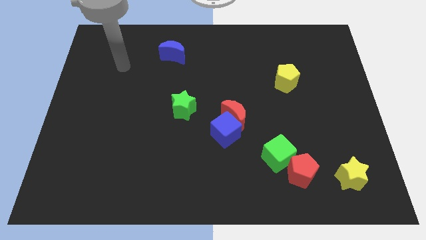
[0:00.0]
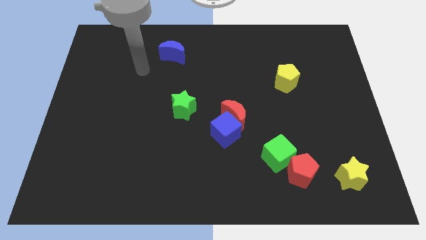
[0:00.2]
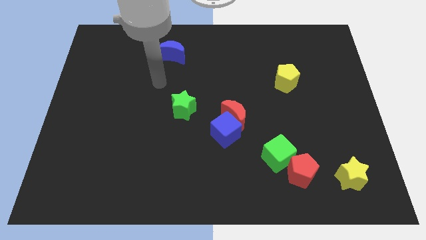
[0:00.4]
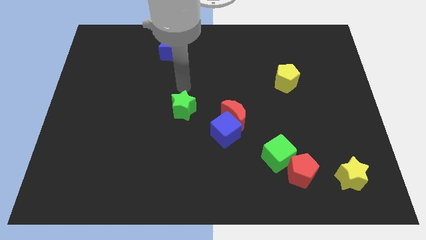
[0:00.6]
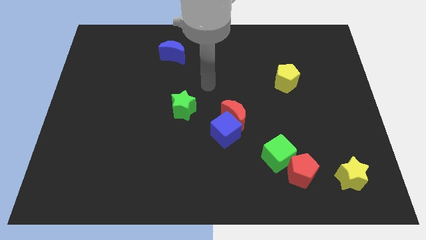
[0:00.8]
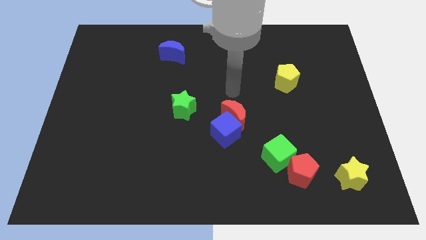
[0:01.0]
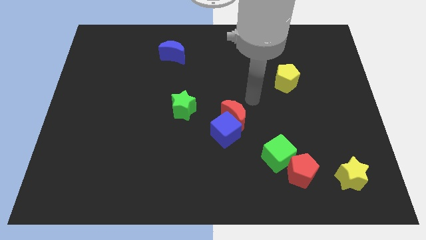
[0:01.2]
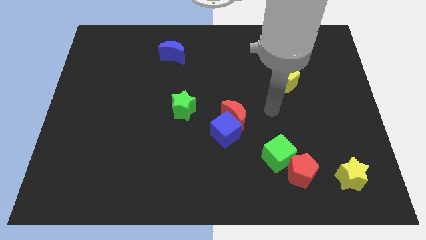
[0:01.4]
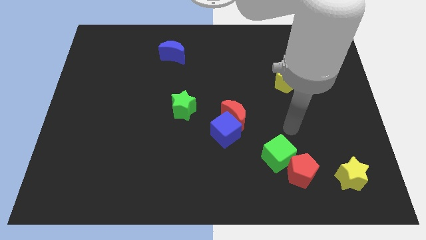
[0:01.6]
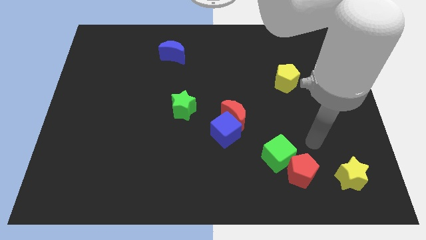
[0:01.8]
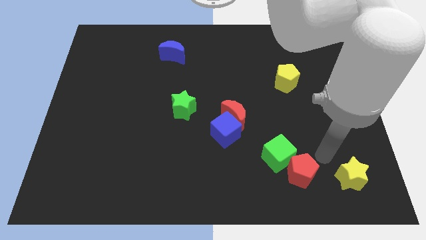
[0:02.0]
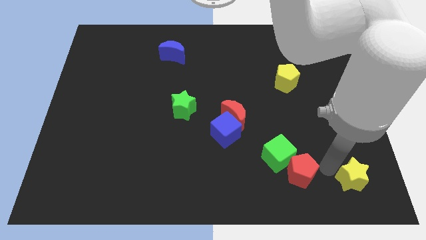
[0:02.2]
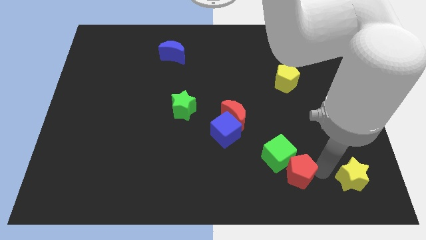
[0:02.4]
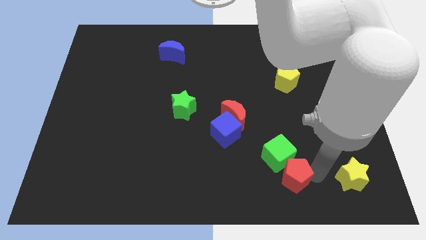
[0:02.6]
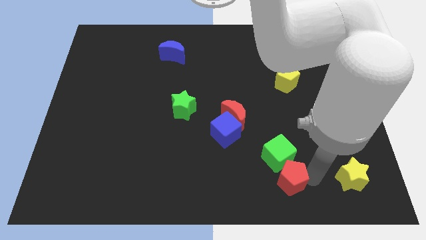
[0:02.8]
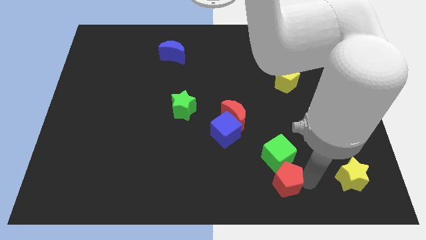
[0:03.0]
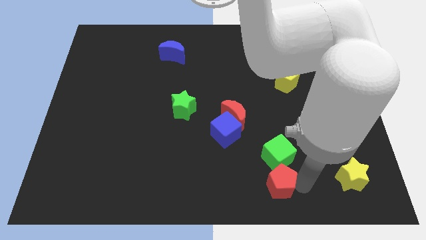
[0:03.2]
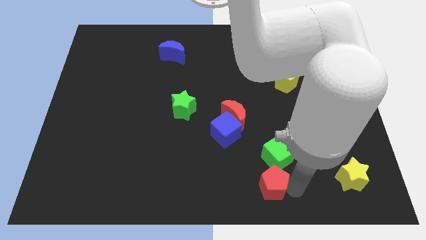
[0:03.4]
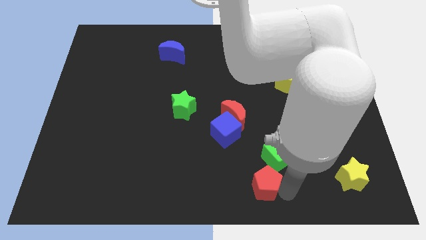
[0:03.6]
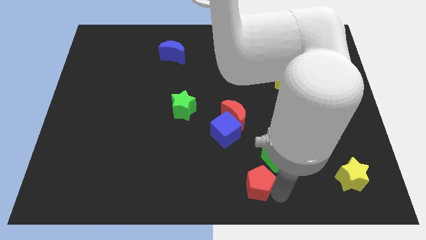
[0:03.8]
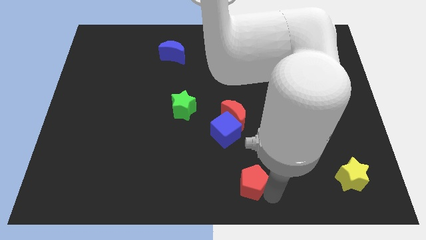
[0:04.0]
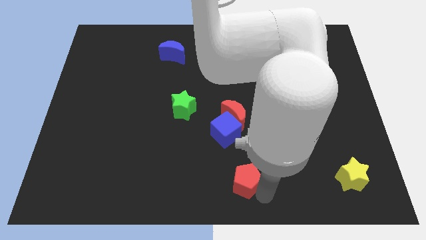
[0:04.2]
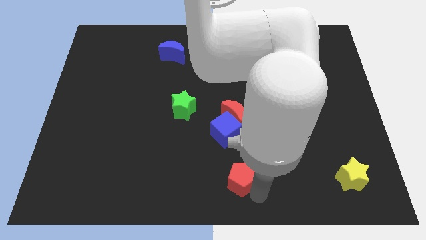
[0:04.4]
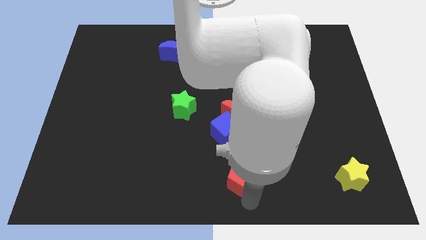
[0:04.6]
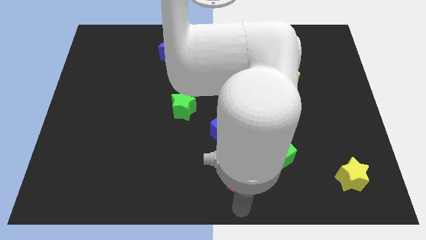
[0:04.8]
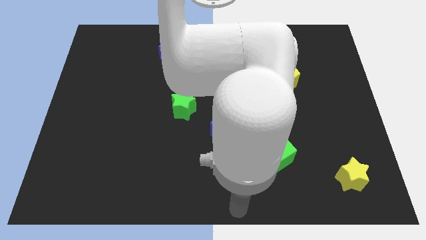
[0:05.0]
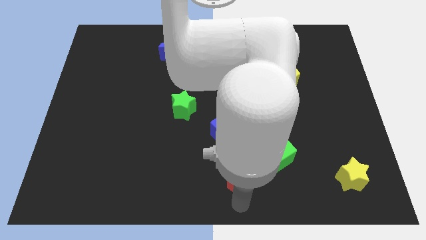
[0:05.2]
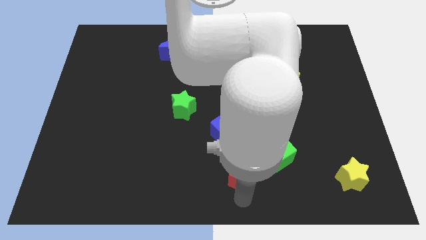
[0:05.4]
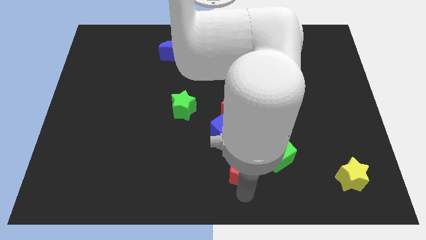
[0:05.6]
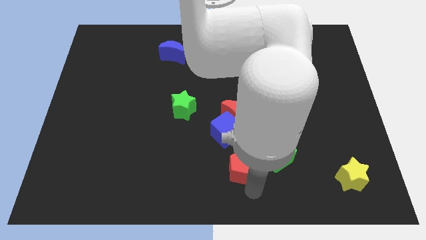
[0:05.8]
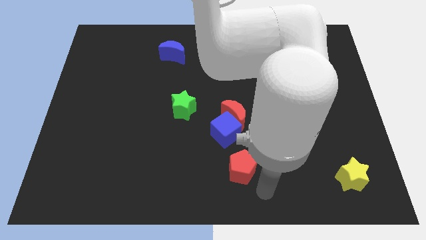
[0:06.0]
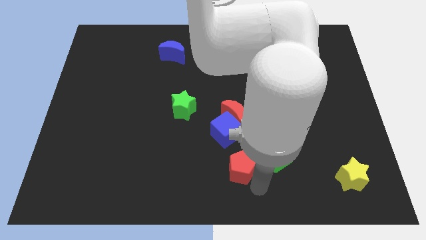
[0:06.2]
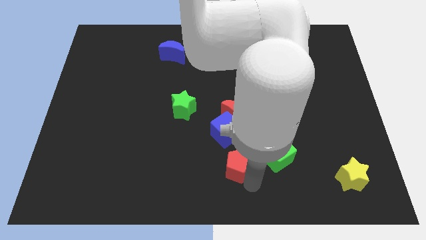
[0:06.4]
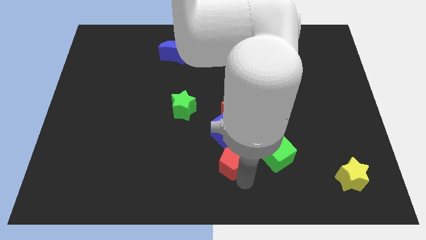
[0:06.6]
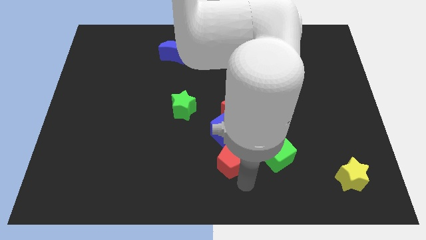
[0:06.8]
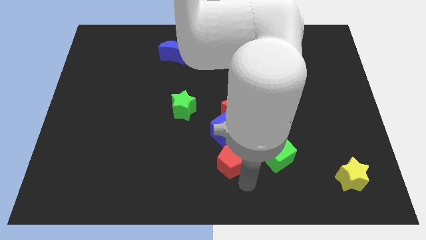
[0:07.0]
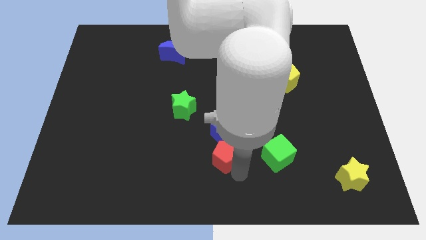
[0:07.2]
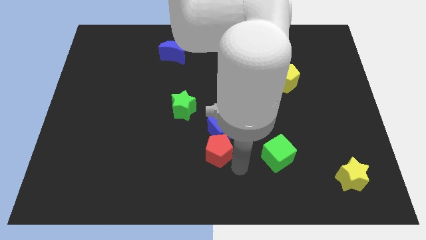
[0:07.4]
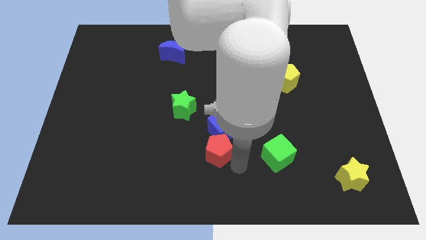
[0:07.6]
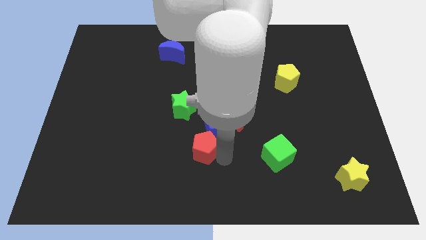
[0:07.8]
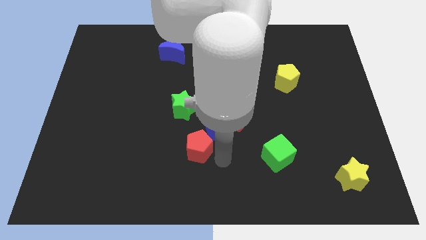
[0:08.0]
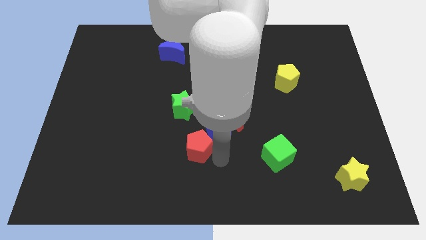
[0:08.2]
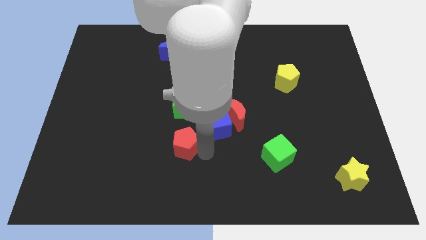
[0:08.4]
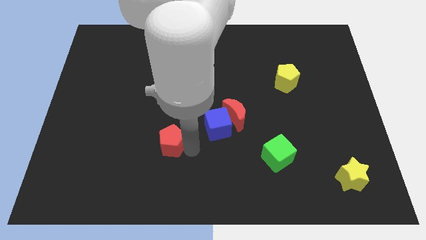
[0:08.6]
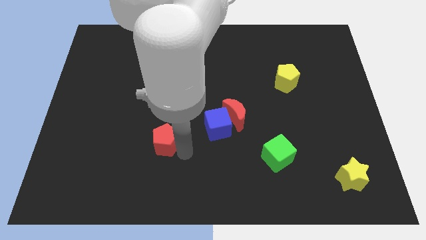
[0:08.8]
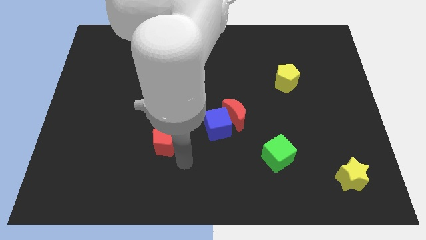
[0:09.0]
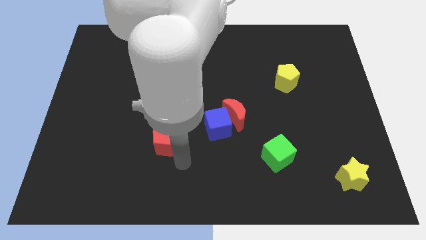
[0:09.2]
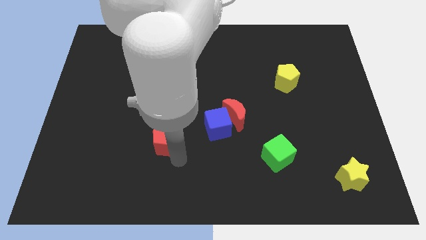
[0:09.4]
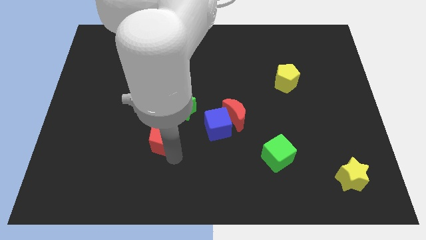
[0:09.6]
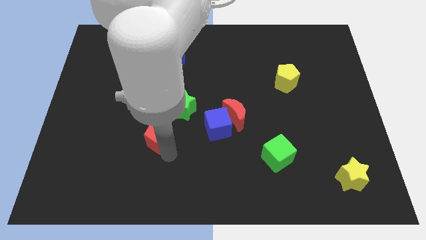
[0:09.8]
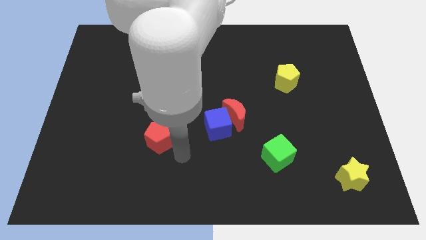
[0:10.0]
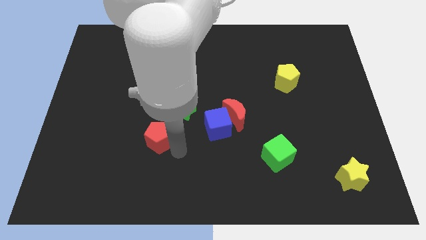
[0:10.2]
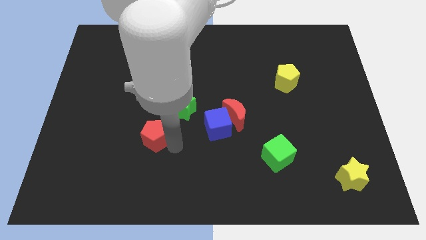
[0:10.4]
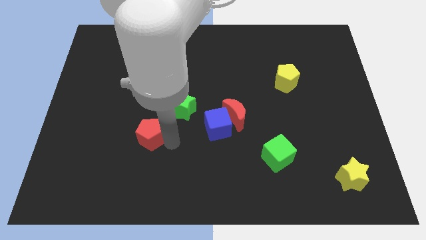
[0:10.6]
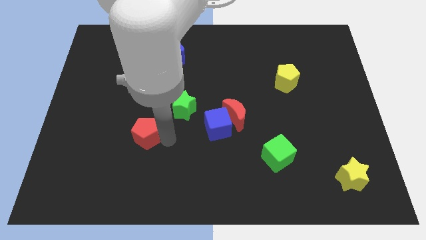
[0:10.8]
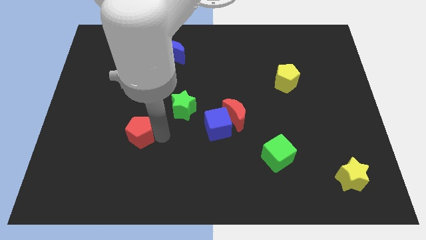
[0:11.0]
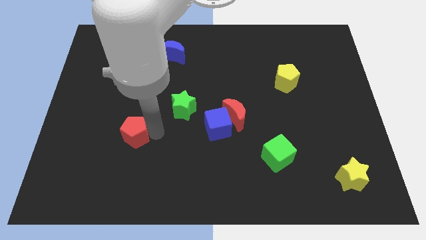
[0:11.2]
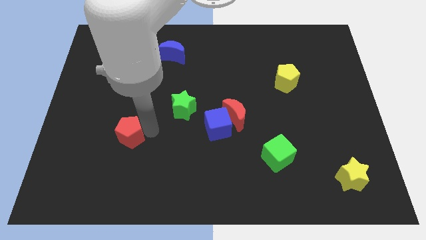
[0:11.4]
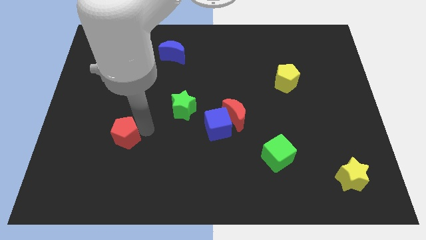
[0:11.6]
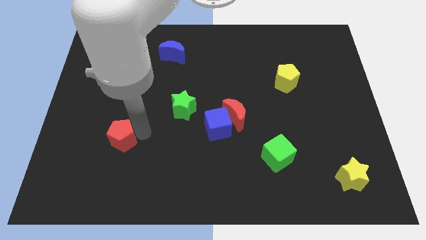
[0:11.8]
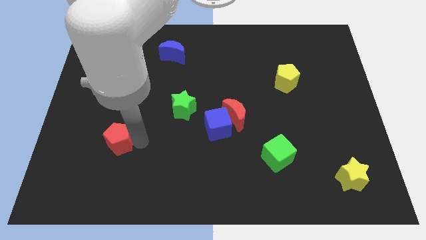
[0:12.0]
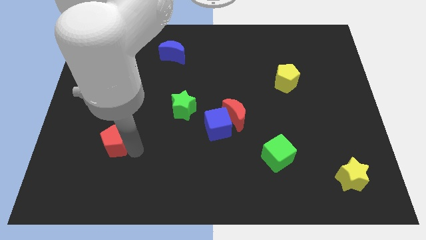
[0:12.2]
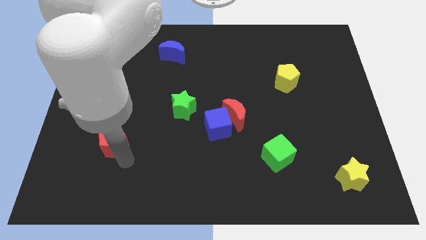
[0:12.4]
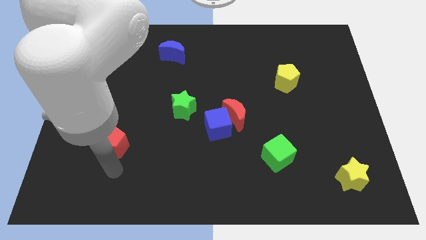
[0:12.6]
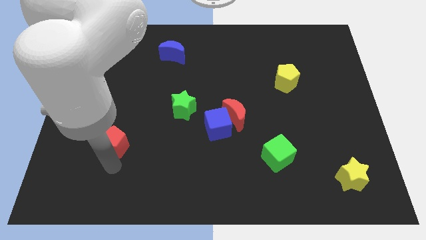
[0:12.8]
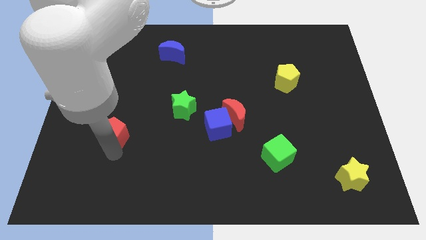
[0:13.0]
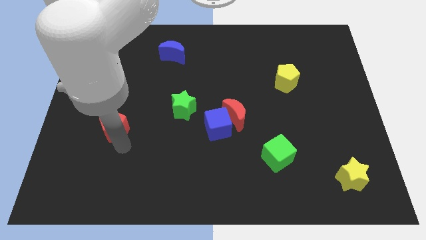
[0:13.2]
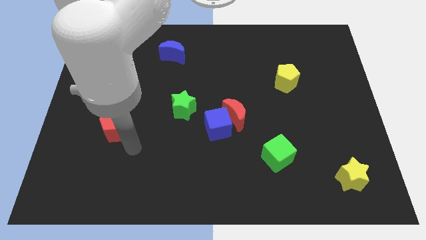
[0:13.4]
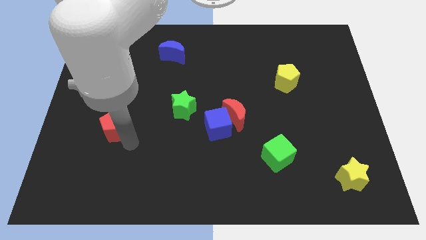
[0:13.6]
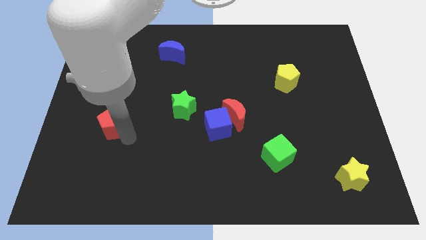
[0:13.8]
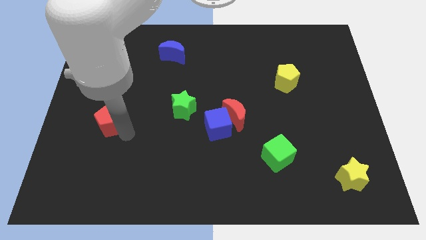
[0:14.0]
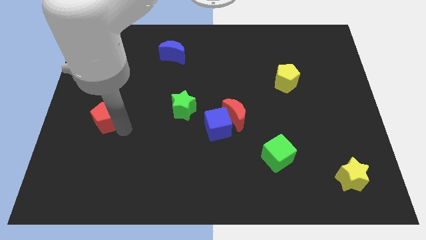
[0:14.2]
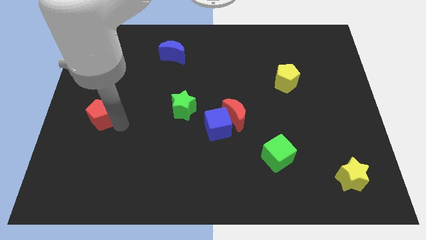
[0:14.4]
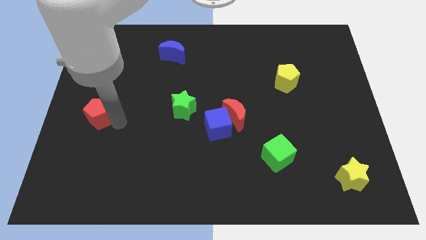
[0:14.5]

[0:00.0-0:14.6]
push the red pentagon to the left side of the board

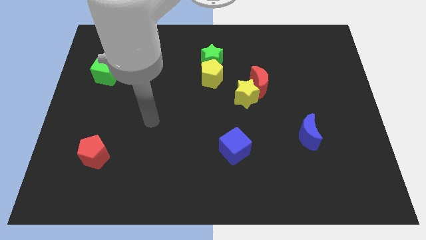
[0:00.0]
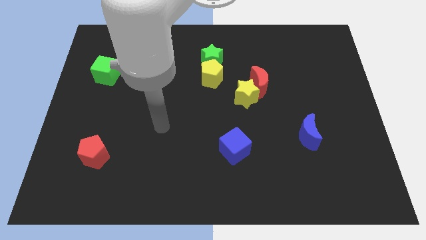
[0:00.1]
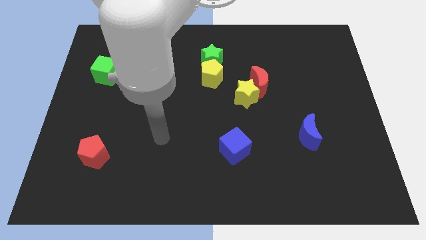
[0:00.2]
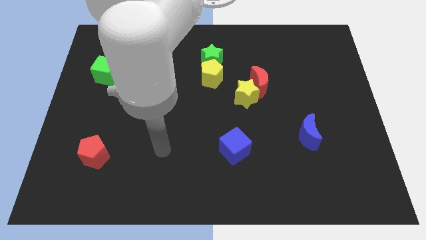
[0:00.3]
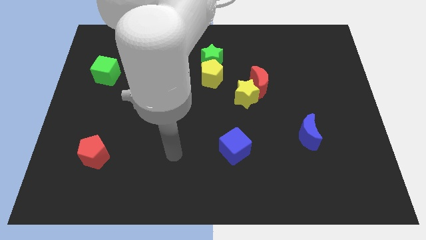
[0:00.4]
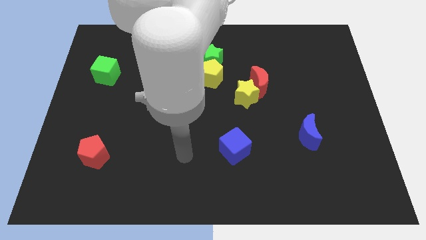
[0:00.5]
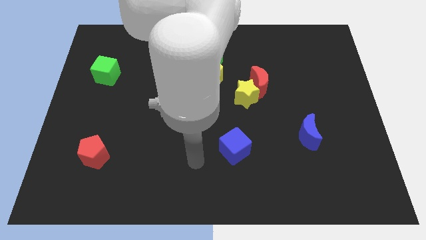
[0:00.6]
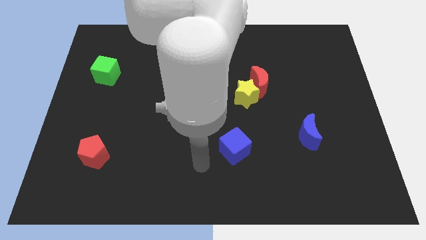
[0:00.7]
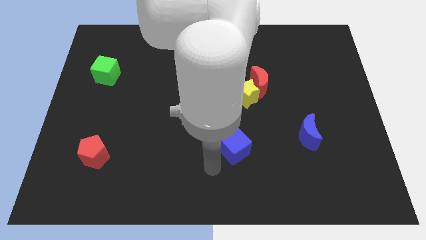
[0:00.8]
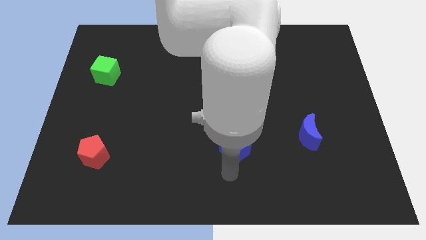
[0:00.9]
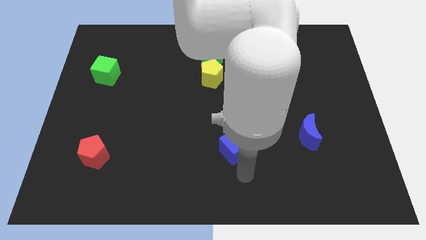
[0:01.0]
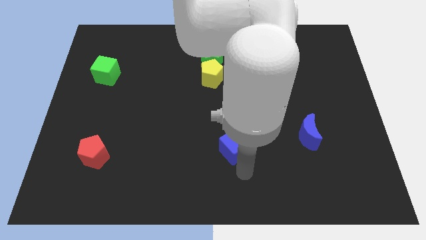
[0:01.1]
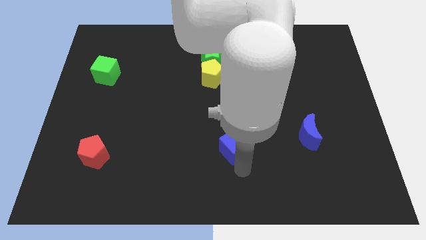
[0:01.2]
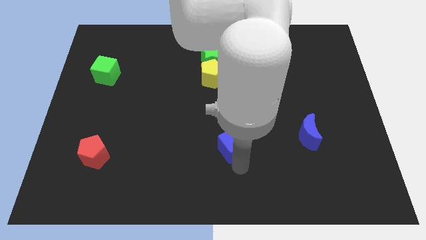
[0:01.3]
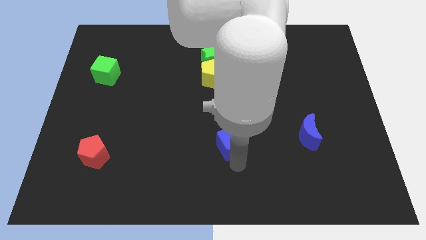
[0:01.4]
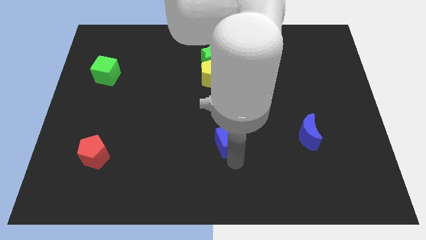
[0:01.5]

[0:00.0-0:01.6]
move the blue cube to the center of the board
